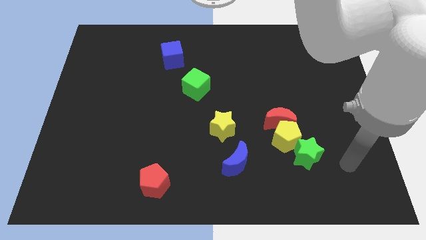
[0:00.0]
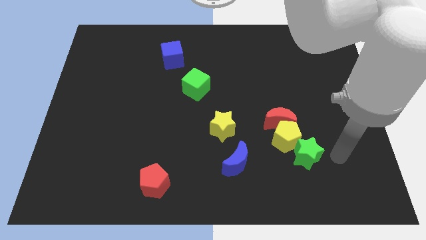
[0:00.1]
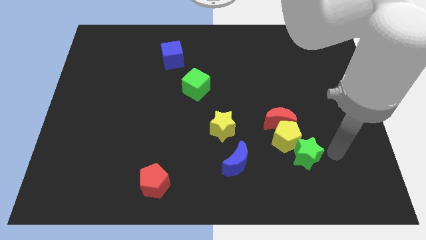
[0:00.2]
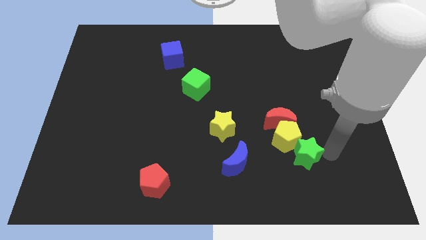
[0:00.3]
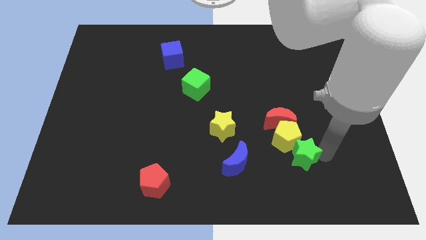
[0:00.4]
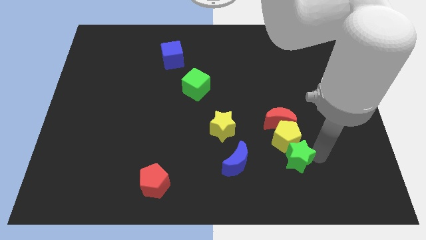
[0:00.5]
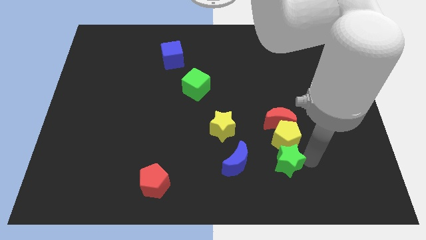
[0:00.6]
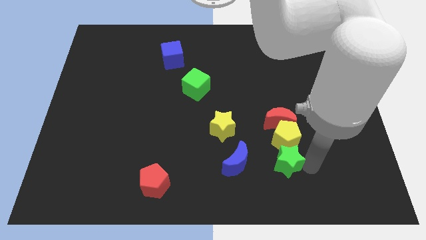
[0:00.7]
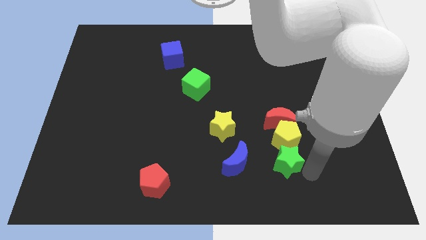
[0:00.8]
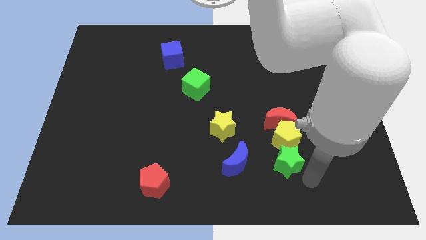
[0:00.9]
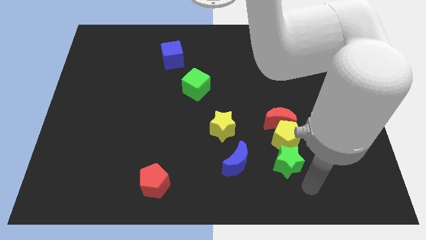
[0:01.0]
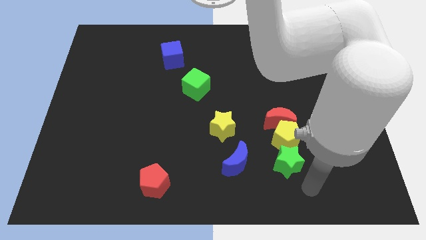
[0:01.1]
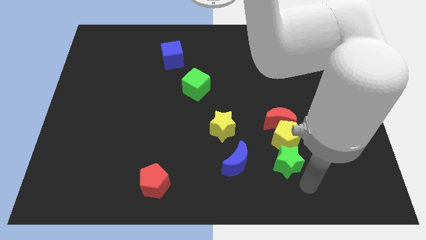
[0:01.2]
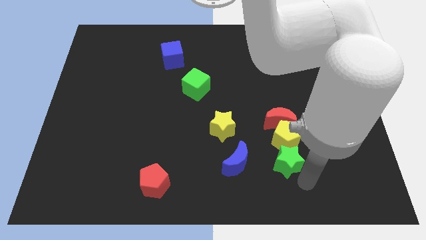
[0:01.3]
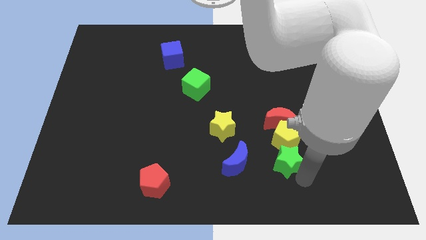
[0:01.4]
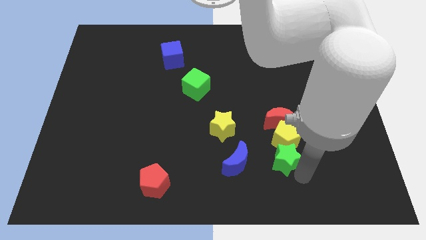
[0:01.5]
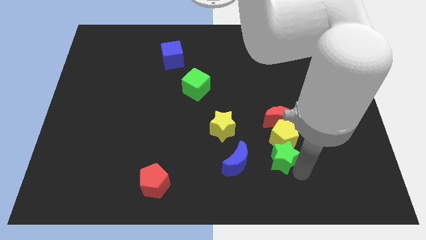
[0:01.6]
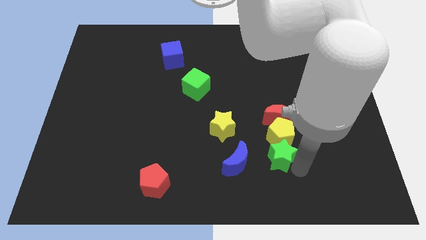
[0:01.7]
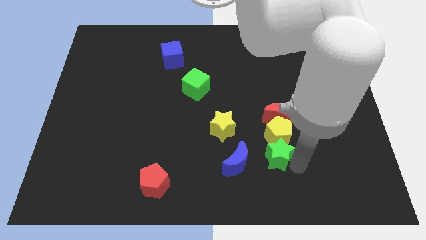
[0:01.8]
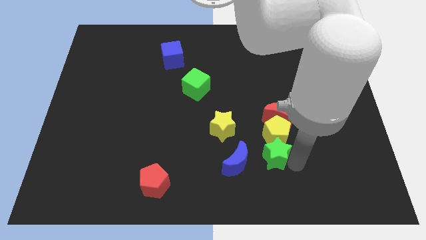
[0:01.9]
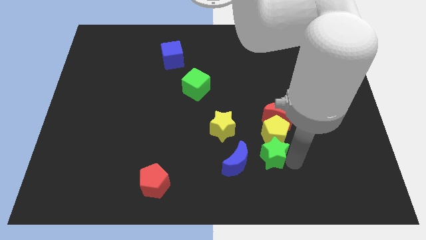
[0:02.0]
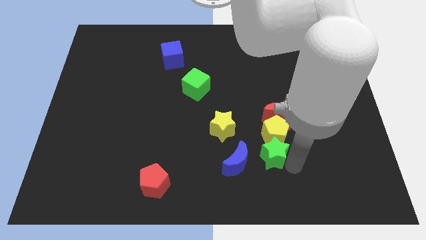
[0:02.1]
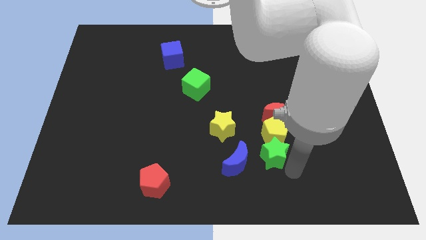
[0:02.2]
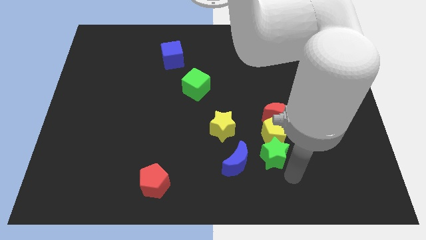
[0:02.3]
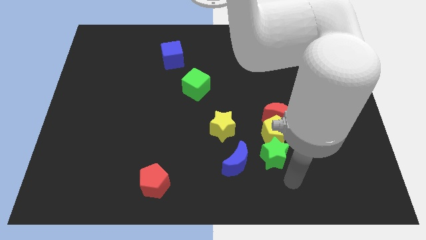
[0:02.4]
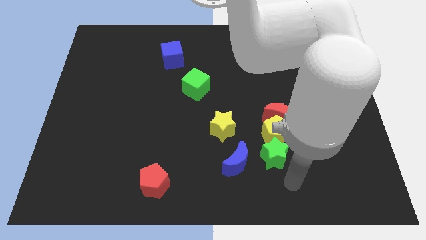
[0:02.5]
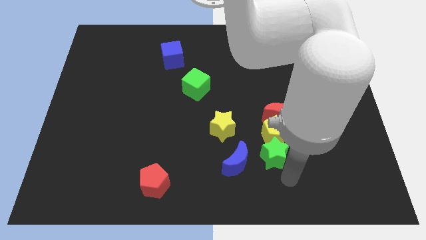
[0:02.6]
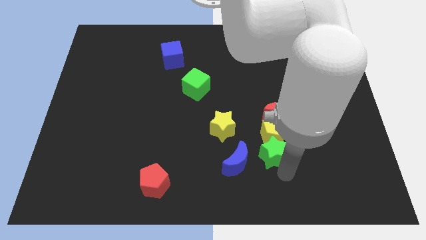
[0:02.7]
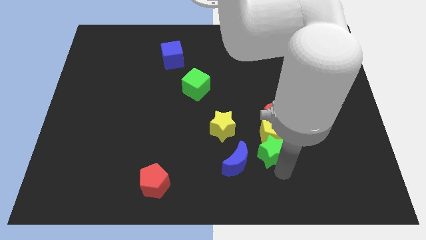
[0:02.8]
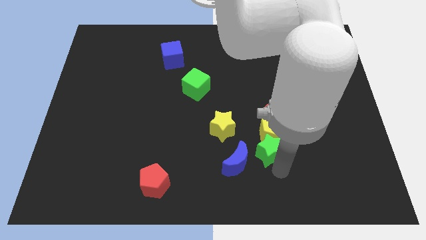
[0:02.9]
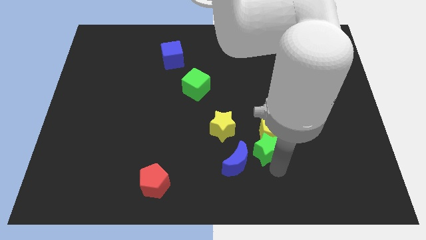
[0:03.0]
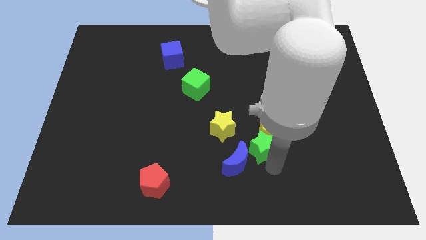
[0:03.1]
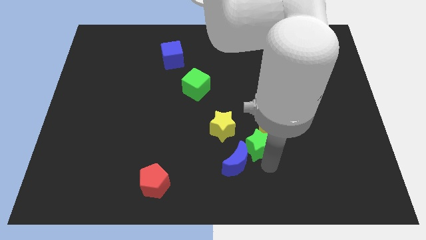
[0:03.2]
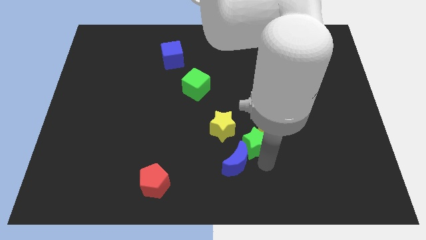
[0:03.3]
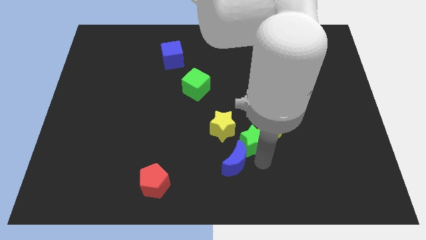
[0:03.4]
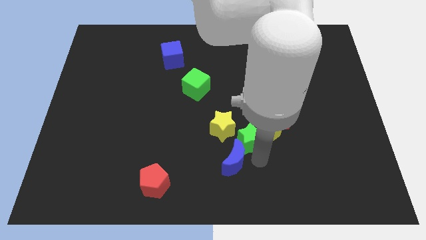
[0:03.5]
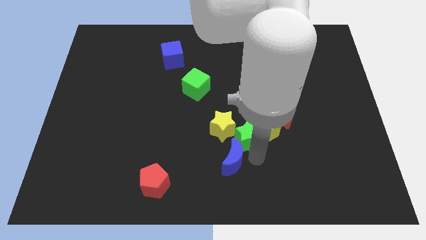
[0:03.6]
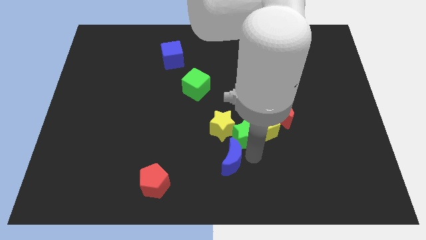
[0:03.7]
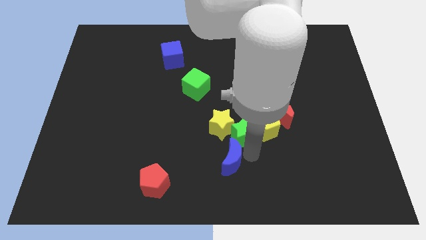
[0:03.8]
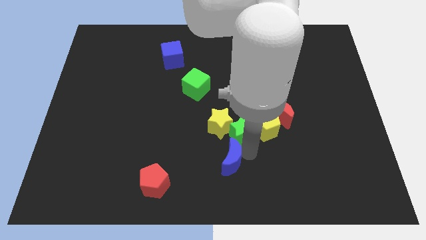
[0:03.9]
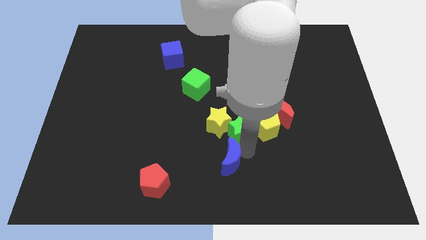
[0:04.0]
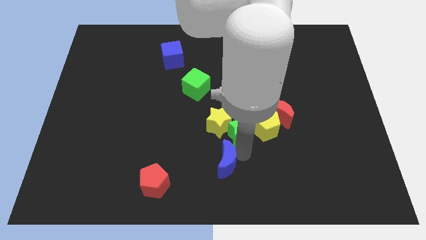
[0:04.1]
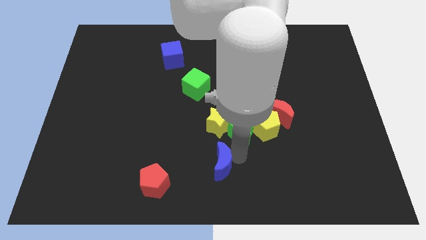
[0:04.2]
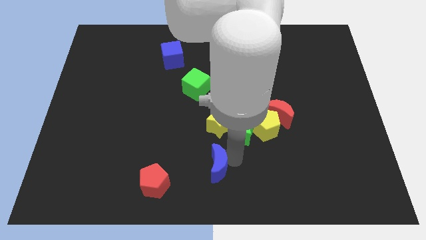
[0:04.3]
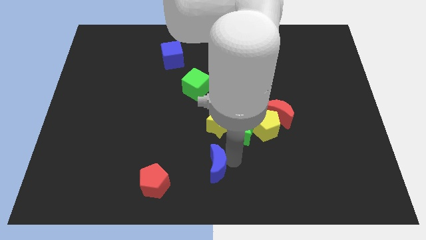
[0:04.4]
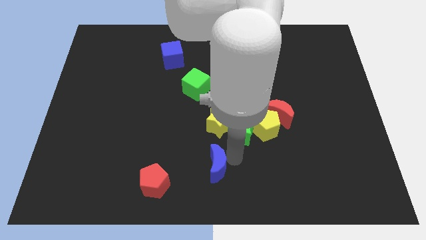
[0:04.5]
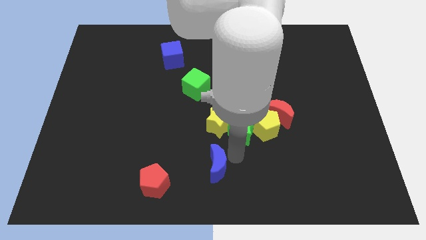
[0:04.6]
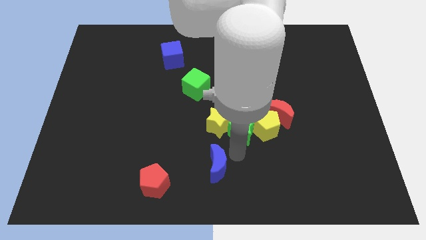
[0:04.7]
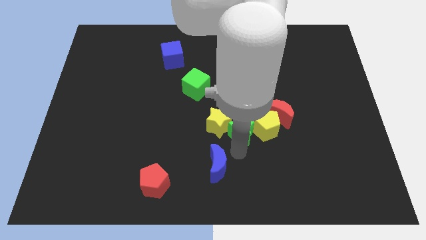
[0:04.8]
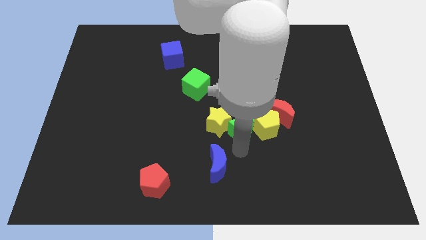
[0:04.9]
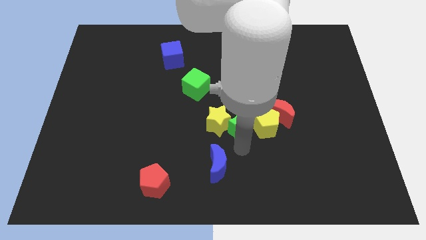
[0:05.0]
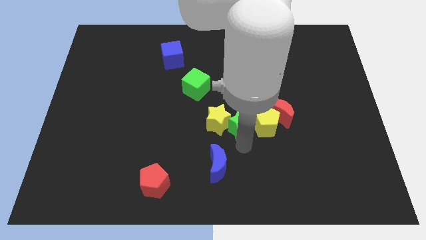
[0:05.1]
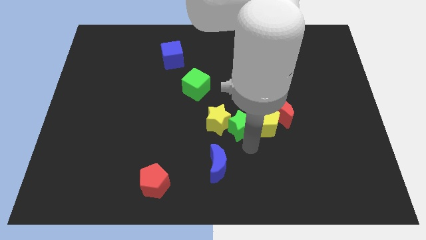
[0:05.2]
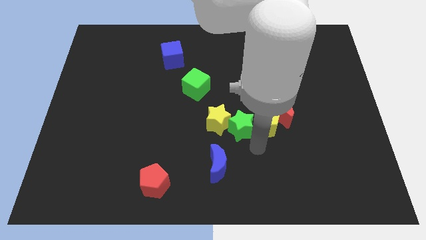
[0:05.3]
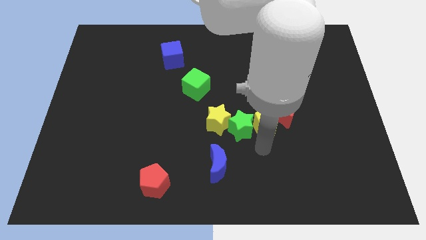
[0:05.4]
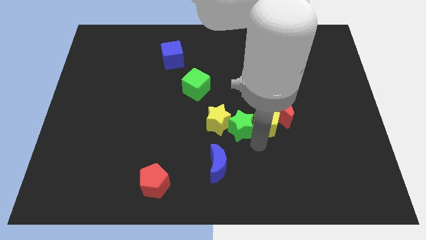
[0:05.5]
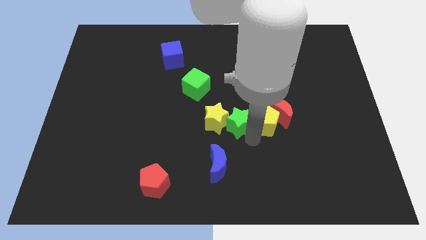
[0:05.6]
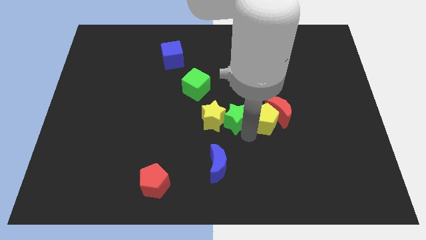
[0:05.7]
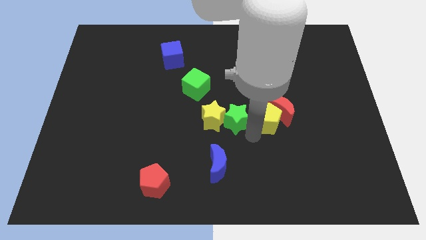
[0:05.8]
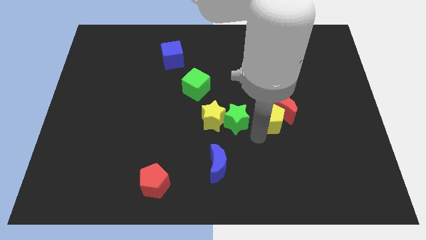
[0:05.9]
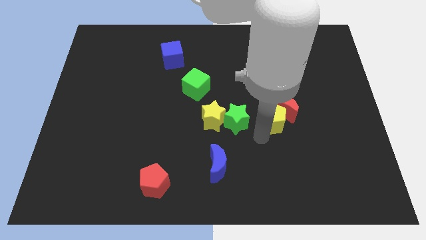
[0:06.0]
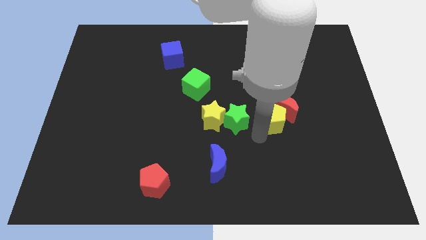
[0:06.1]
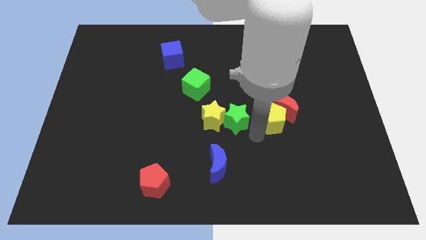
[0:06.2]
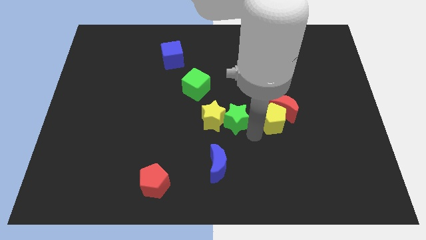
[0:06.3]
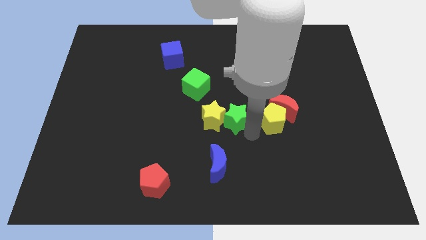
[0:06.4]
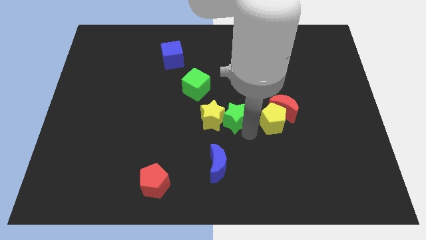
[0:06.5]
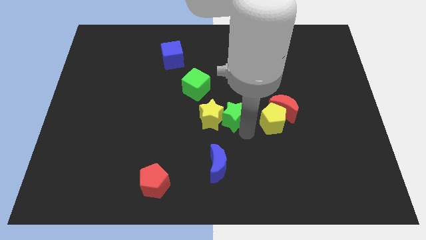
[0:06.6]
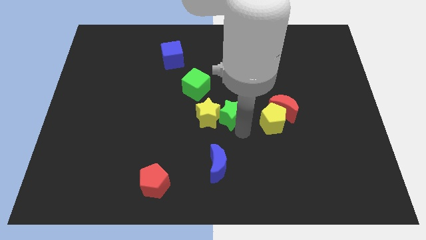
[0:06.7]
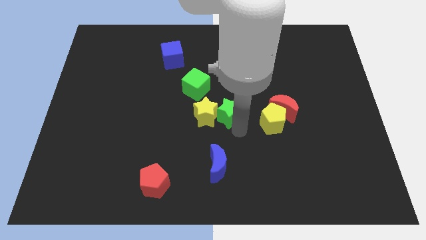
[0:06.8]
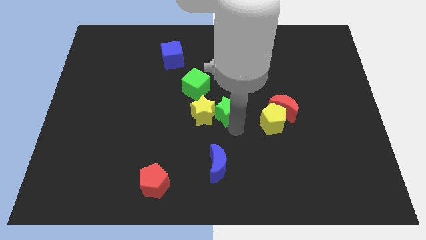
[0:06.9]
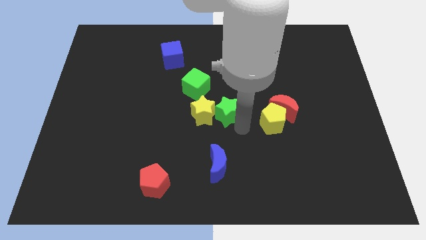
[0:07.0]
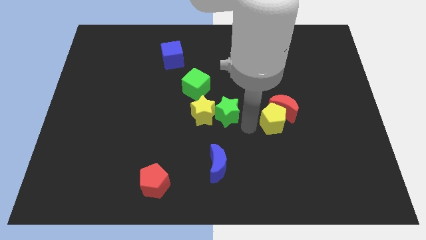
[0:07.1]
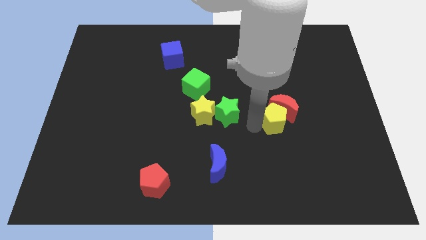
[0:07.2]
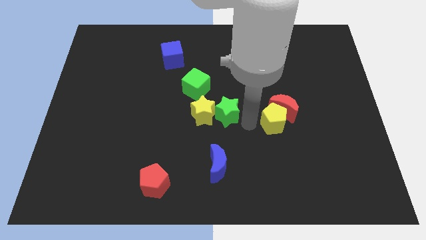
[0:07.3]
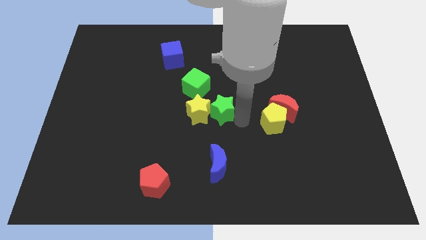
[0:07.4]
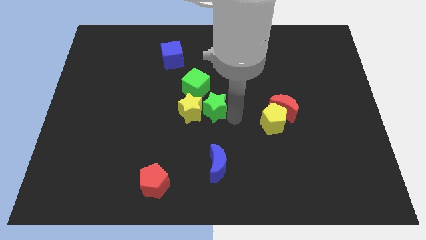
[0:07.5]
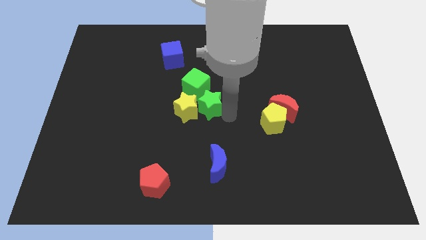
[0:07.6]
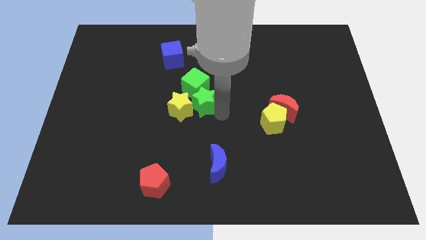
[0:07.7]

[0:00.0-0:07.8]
move the green star to the green cube
